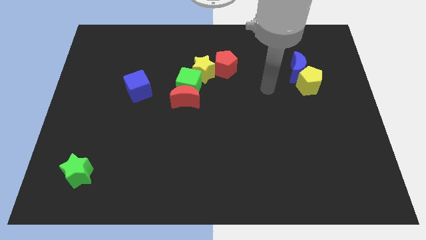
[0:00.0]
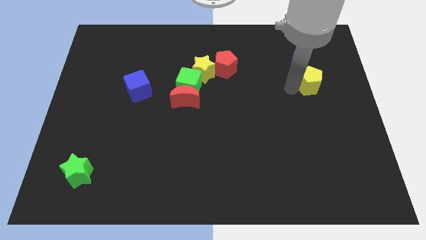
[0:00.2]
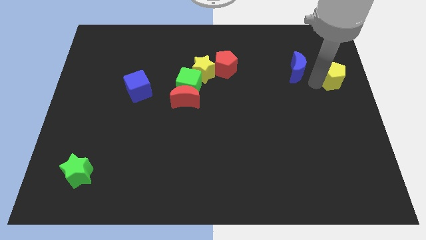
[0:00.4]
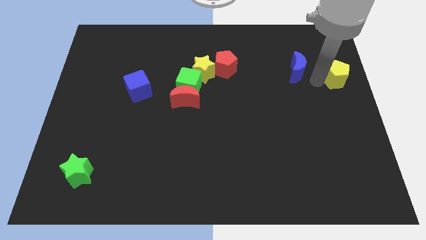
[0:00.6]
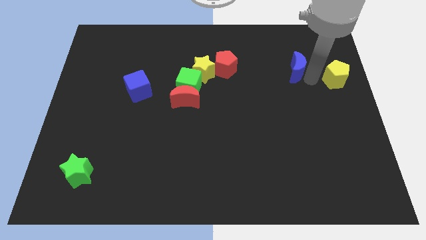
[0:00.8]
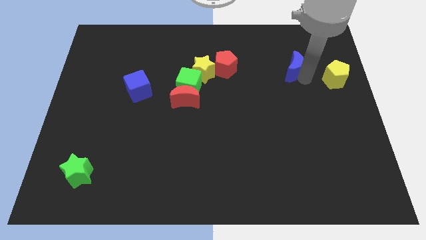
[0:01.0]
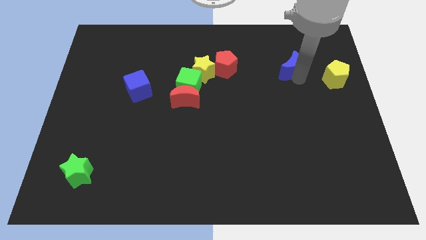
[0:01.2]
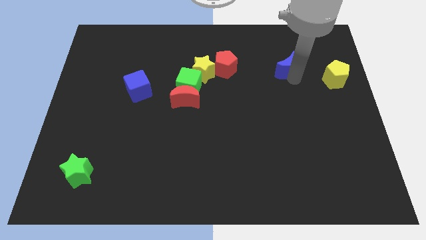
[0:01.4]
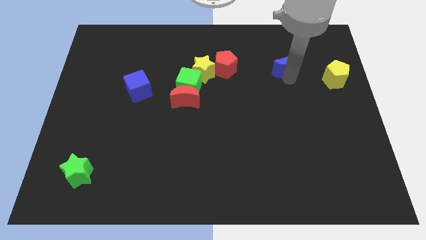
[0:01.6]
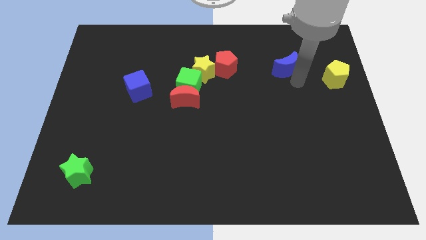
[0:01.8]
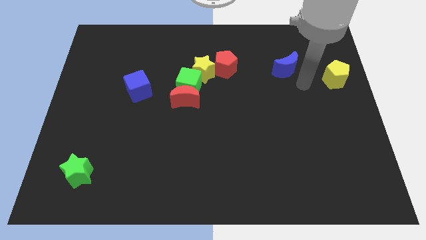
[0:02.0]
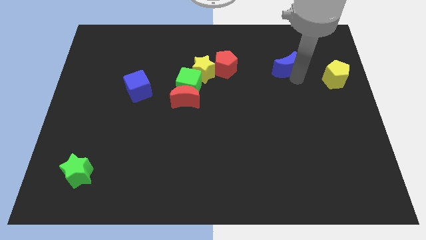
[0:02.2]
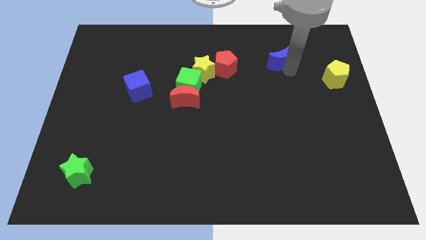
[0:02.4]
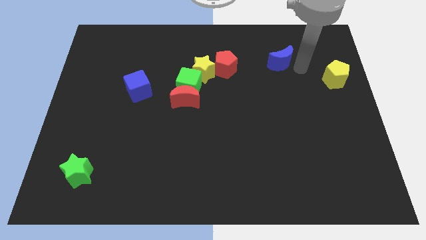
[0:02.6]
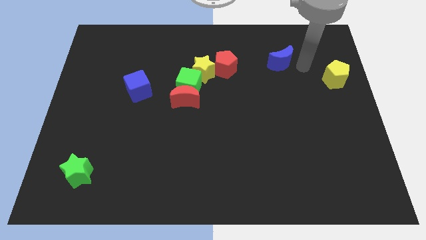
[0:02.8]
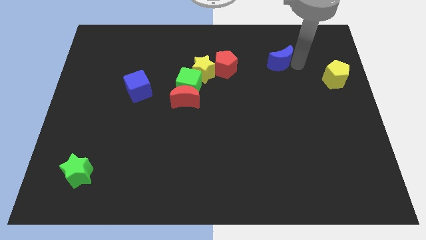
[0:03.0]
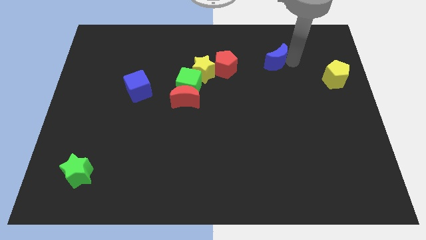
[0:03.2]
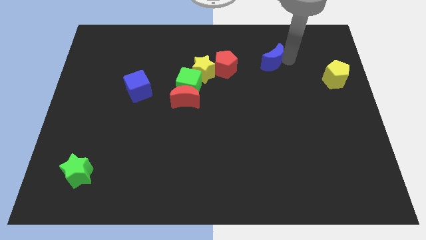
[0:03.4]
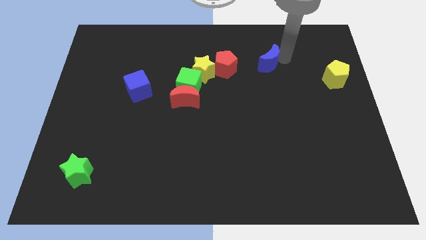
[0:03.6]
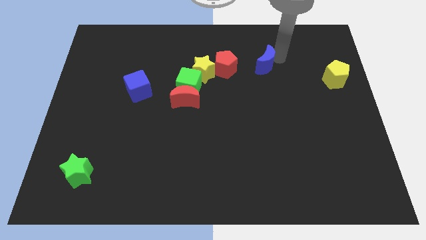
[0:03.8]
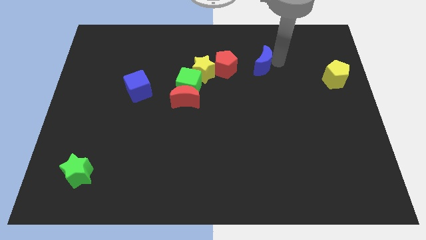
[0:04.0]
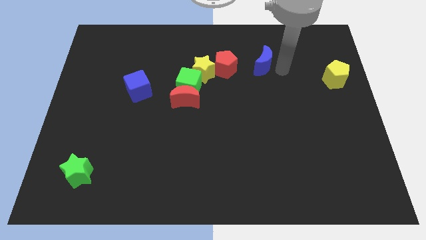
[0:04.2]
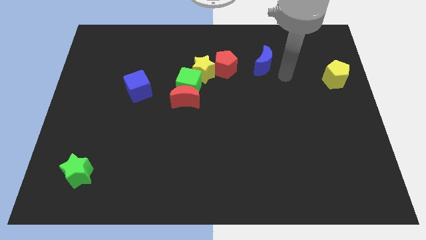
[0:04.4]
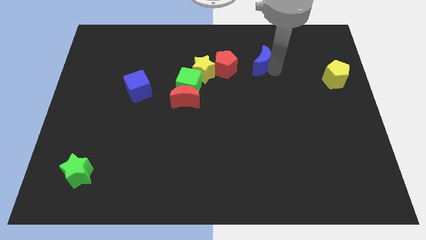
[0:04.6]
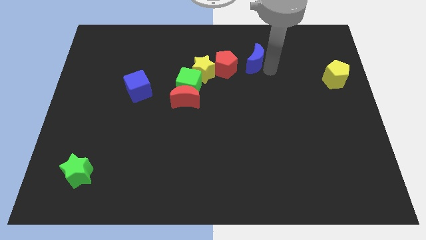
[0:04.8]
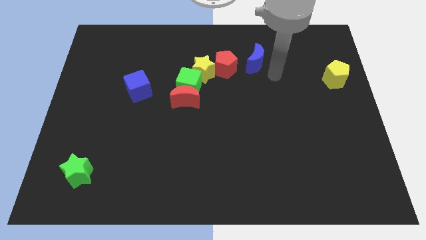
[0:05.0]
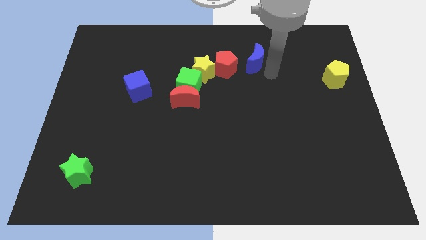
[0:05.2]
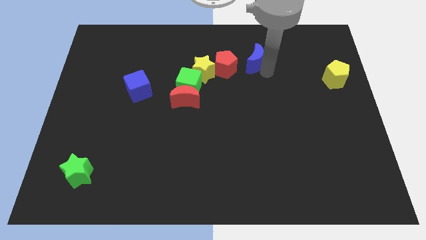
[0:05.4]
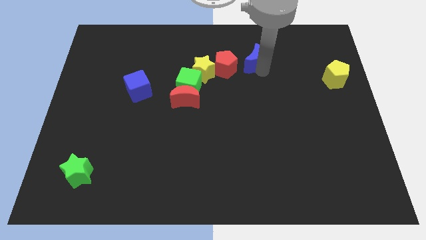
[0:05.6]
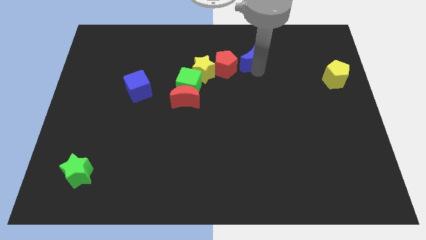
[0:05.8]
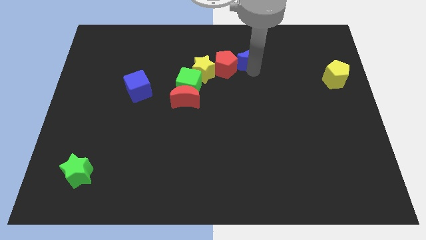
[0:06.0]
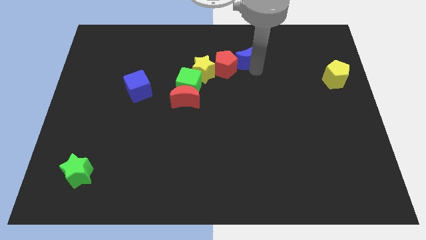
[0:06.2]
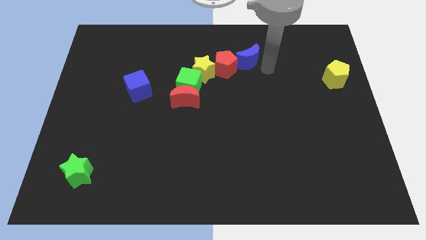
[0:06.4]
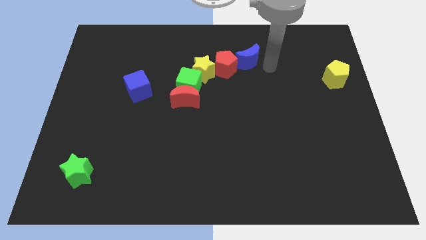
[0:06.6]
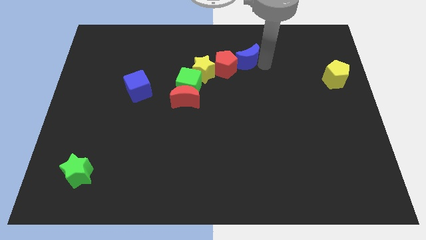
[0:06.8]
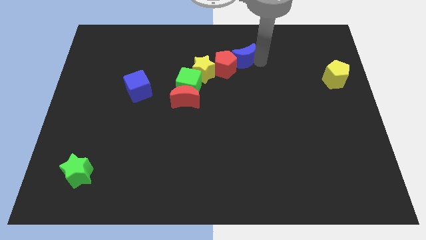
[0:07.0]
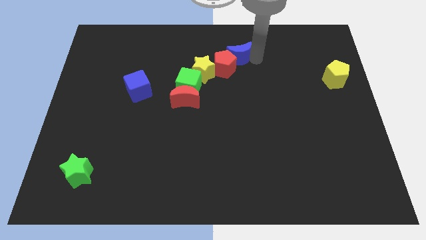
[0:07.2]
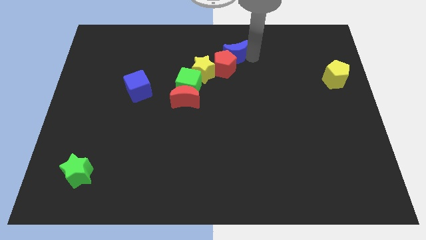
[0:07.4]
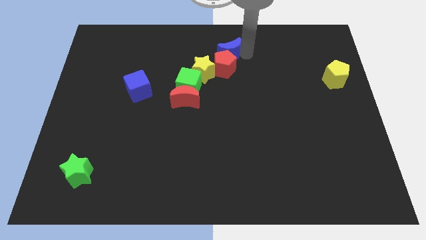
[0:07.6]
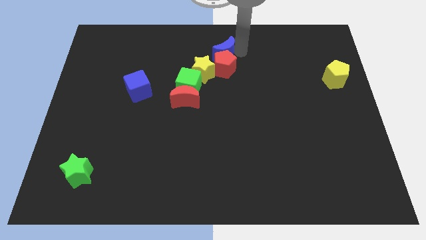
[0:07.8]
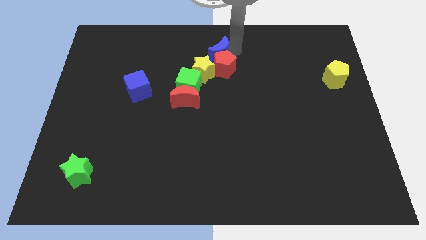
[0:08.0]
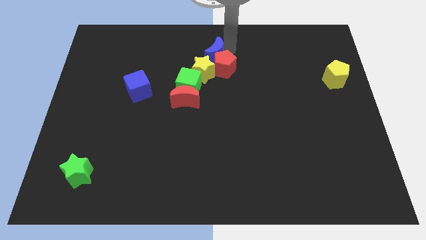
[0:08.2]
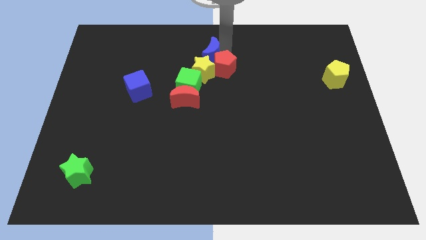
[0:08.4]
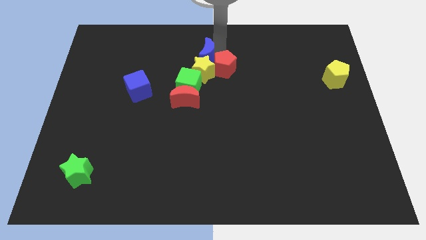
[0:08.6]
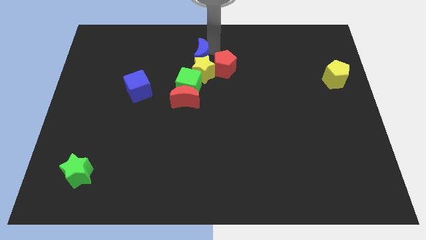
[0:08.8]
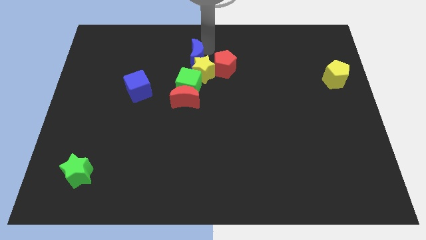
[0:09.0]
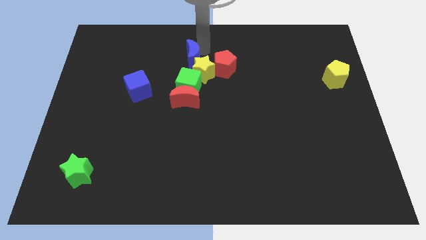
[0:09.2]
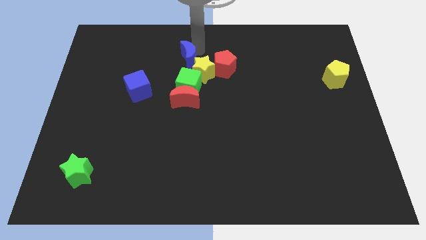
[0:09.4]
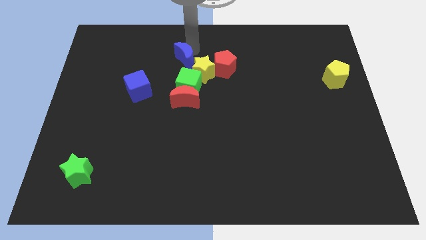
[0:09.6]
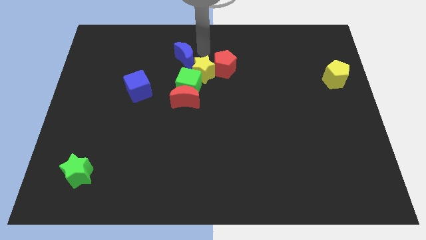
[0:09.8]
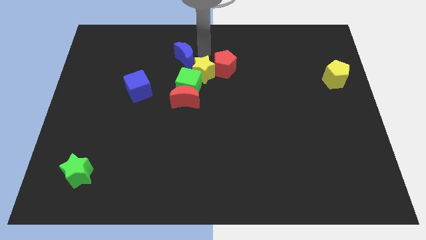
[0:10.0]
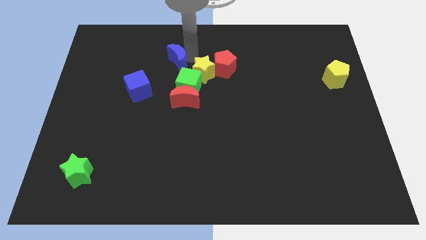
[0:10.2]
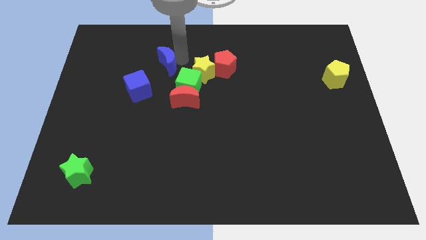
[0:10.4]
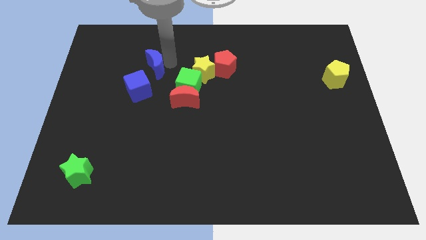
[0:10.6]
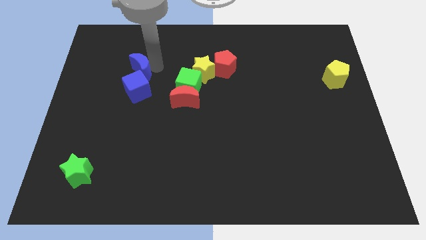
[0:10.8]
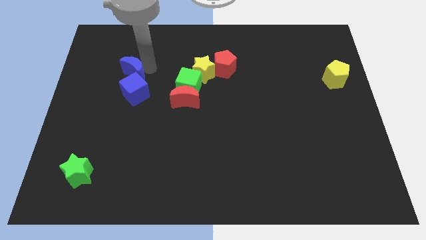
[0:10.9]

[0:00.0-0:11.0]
put the blue moon diagonally up and to the left of the blue cube
